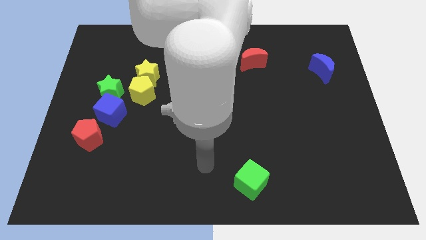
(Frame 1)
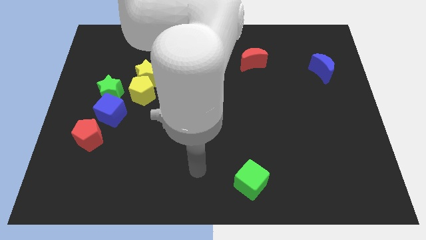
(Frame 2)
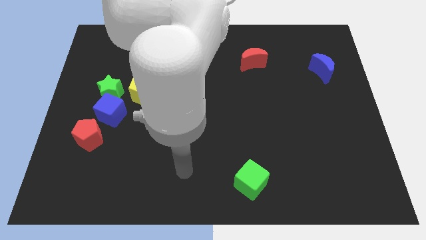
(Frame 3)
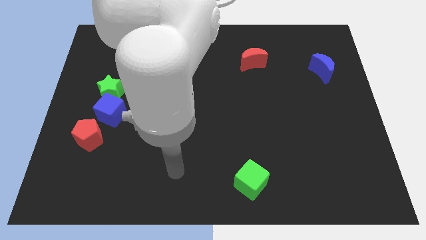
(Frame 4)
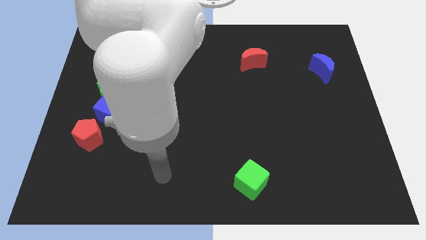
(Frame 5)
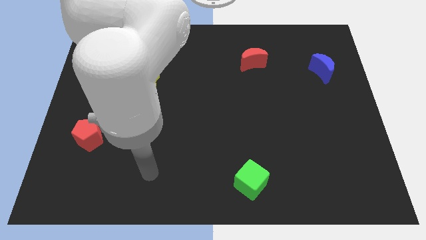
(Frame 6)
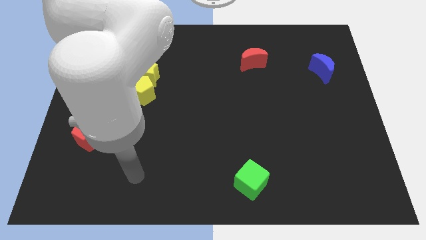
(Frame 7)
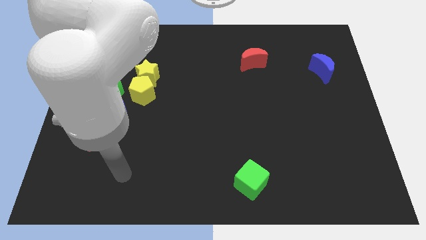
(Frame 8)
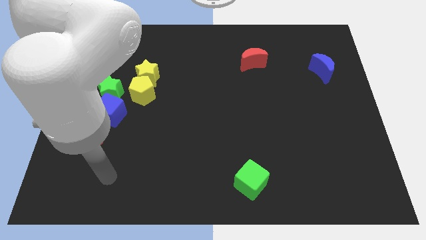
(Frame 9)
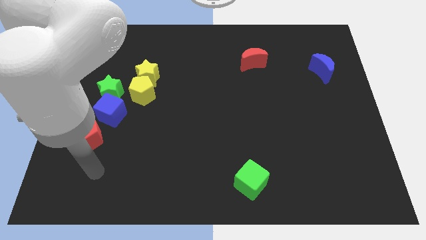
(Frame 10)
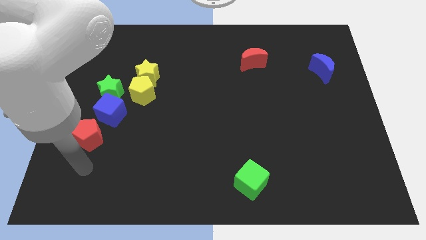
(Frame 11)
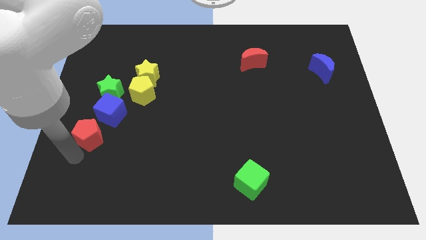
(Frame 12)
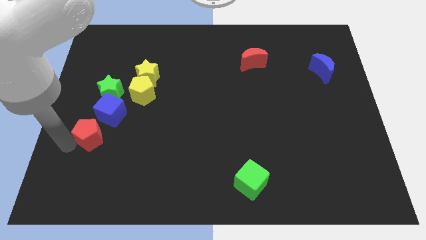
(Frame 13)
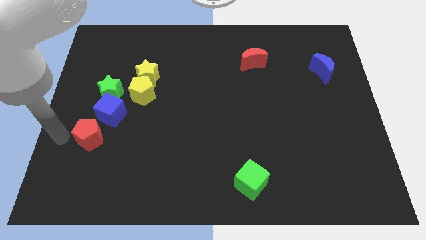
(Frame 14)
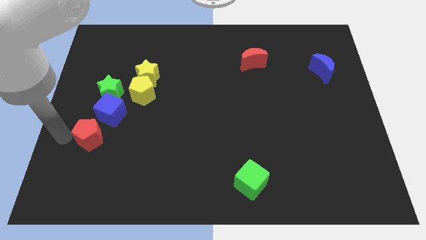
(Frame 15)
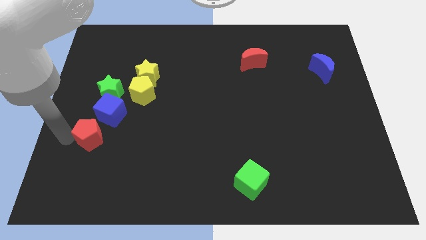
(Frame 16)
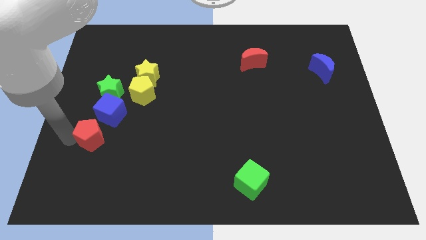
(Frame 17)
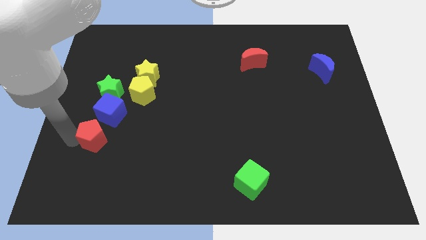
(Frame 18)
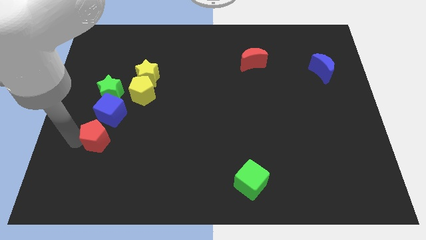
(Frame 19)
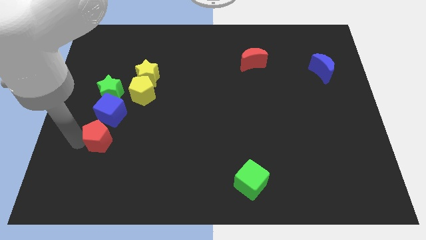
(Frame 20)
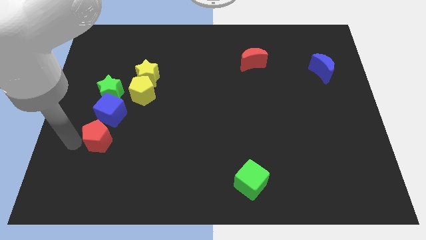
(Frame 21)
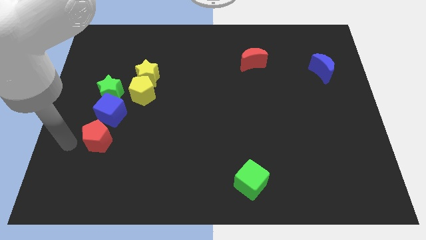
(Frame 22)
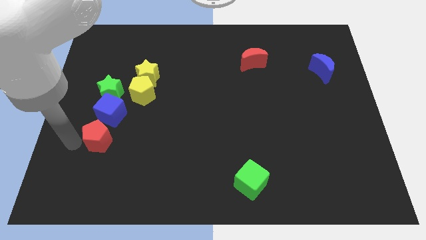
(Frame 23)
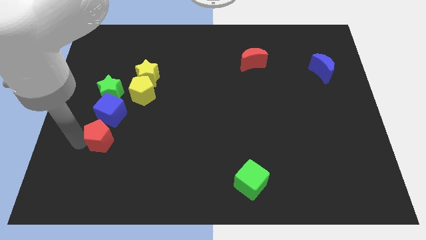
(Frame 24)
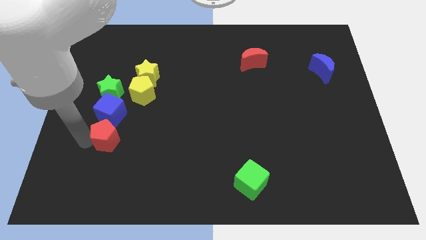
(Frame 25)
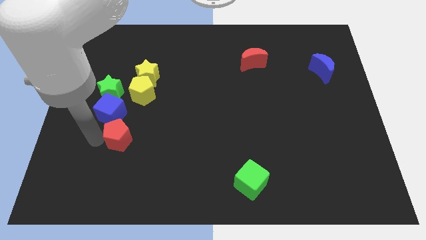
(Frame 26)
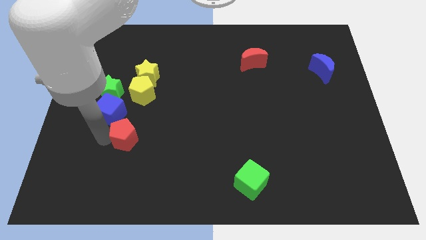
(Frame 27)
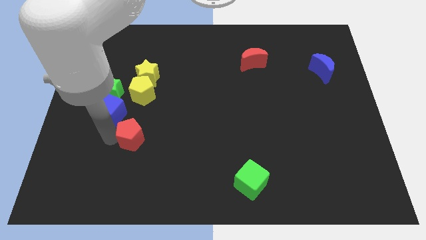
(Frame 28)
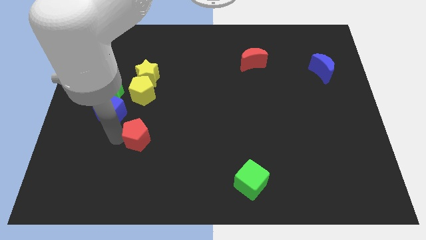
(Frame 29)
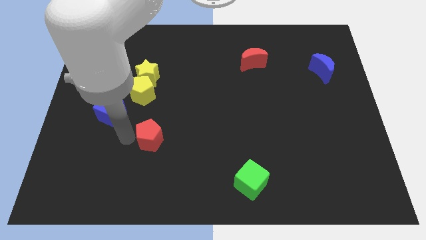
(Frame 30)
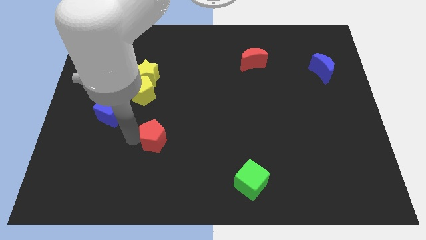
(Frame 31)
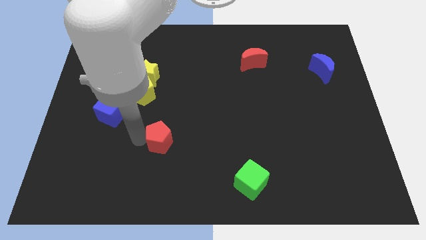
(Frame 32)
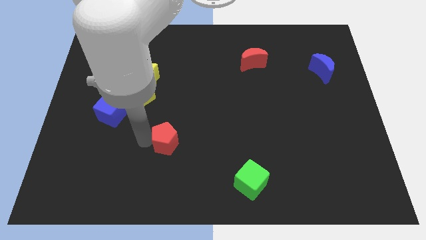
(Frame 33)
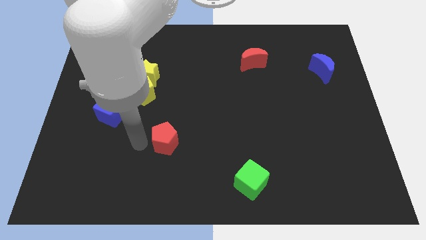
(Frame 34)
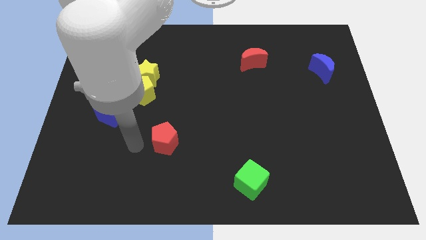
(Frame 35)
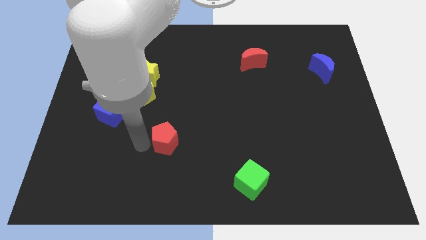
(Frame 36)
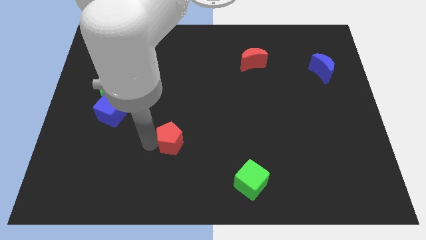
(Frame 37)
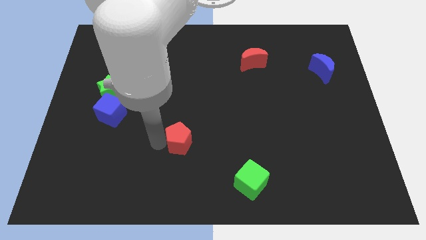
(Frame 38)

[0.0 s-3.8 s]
slide the red pentagon to the right

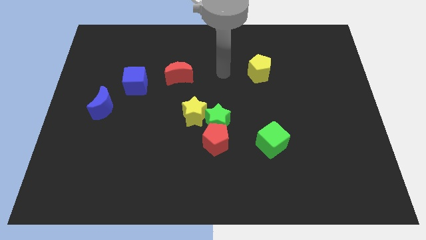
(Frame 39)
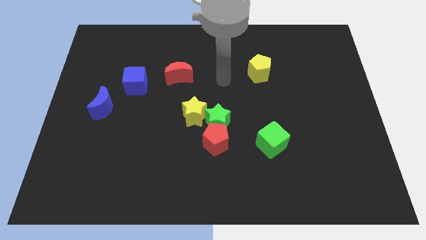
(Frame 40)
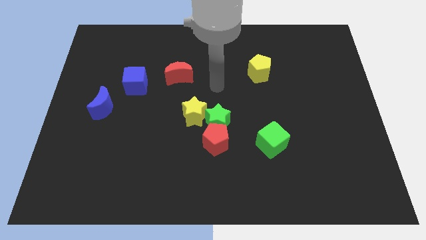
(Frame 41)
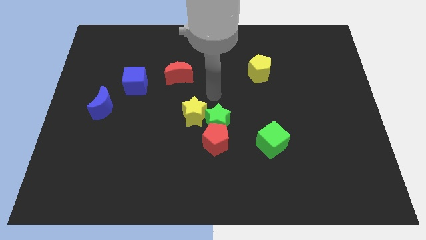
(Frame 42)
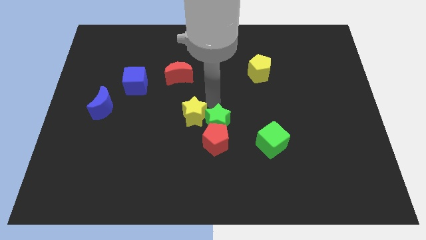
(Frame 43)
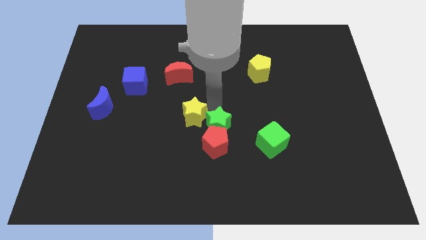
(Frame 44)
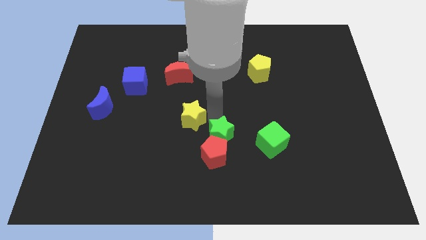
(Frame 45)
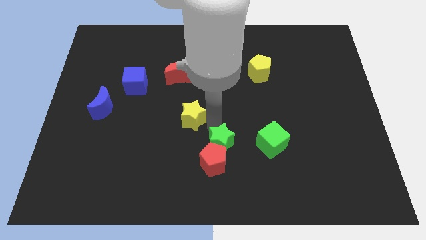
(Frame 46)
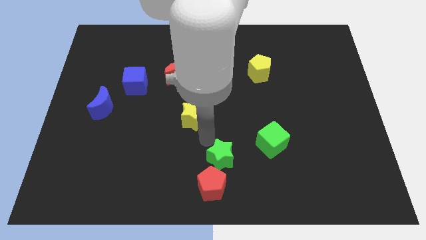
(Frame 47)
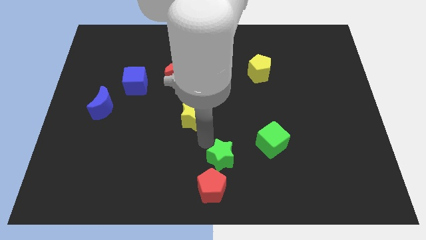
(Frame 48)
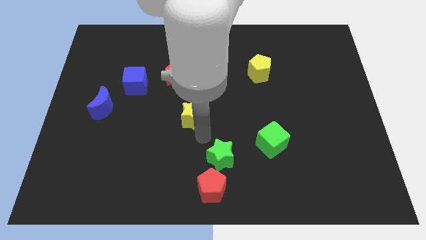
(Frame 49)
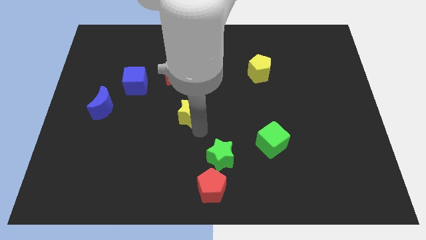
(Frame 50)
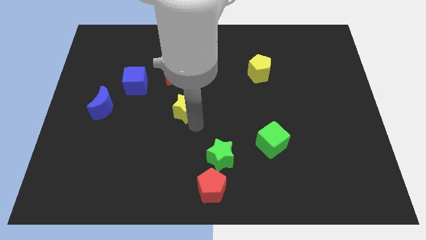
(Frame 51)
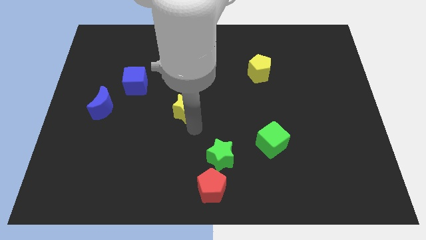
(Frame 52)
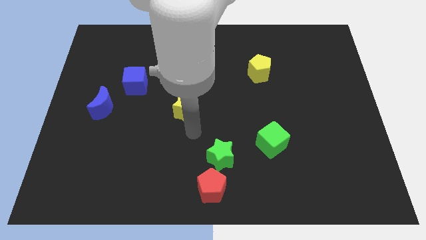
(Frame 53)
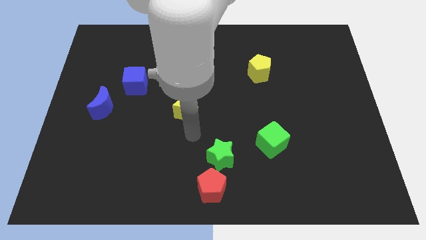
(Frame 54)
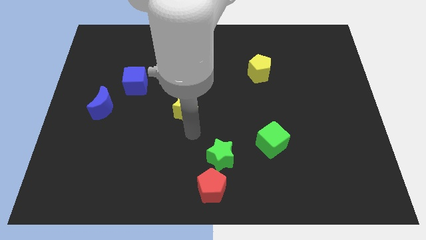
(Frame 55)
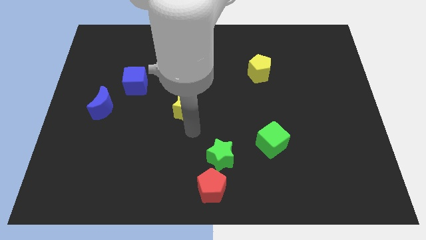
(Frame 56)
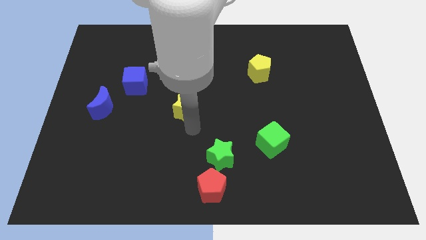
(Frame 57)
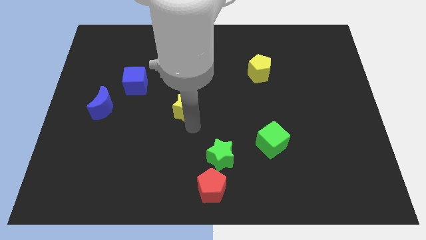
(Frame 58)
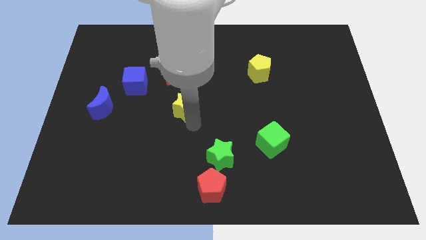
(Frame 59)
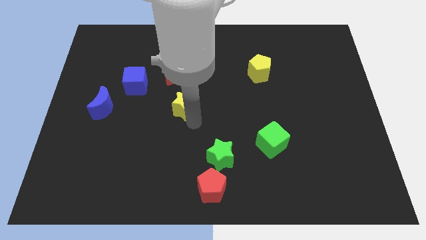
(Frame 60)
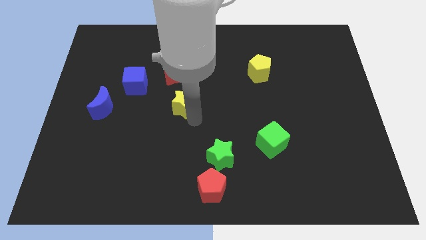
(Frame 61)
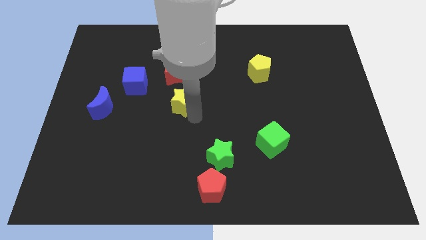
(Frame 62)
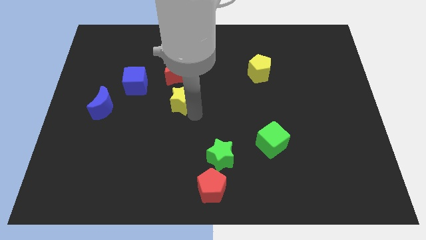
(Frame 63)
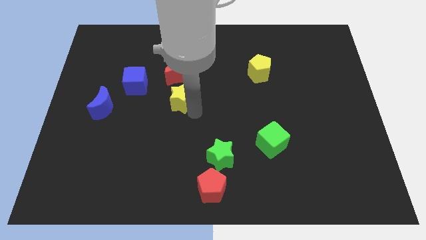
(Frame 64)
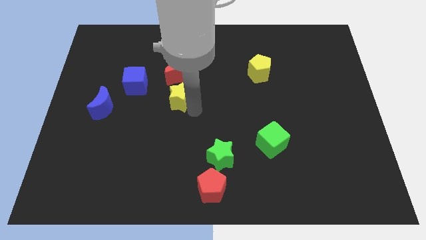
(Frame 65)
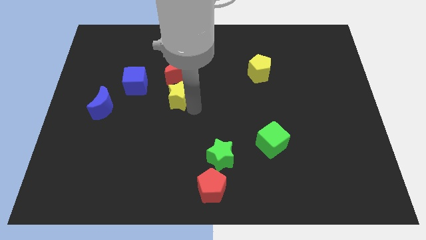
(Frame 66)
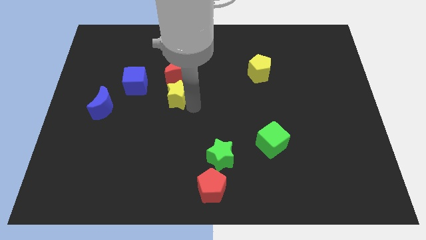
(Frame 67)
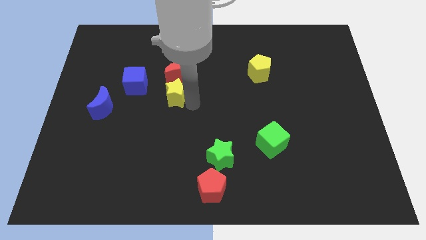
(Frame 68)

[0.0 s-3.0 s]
slide the yellow star diagonally upwards and left a little

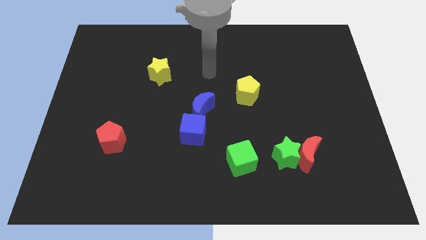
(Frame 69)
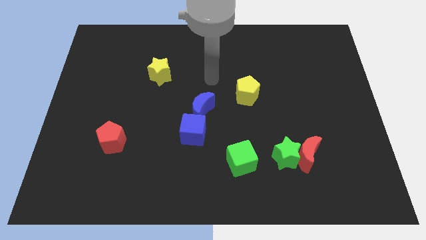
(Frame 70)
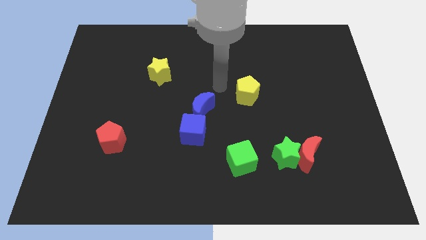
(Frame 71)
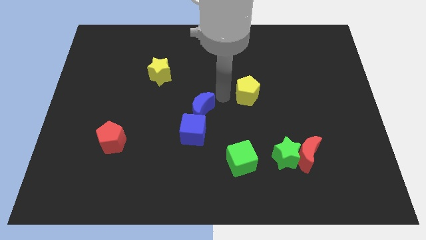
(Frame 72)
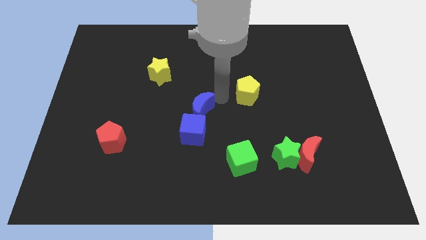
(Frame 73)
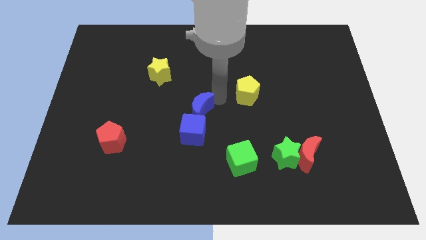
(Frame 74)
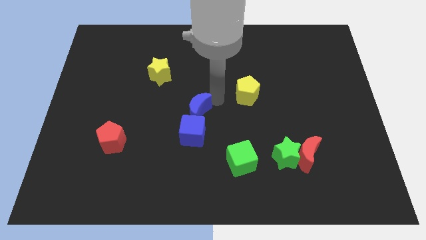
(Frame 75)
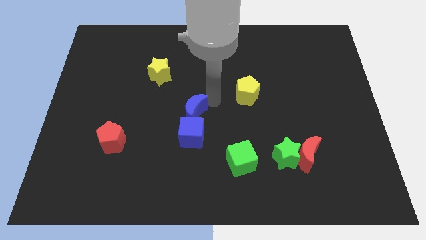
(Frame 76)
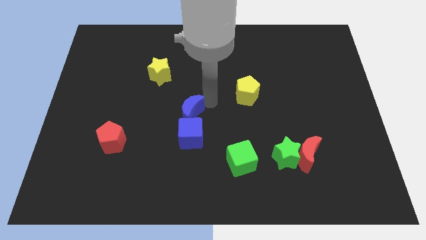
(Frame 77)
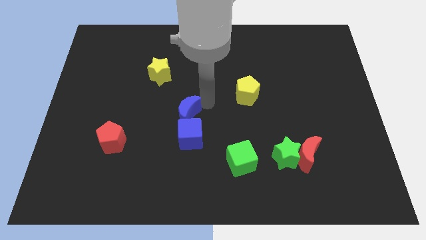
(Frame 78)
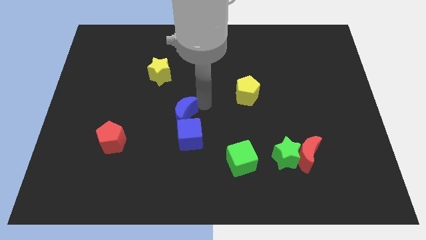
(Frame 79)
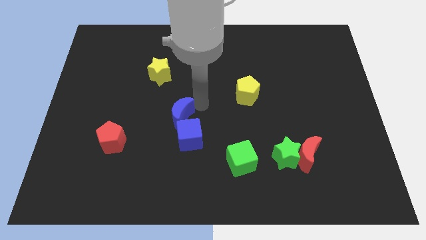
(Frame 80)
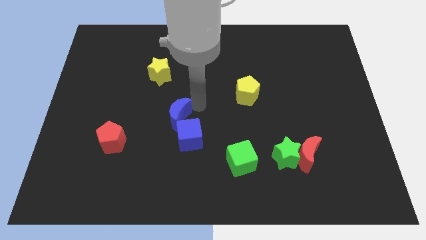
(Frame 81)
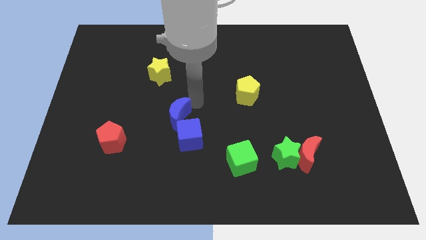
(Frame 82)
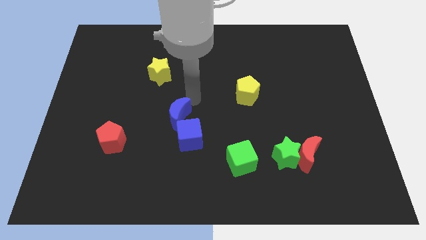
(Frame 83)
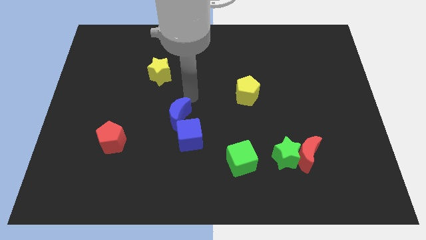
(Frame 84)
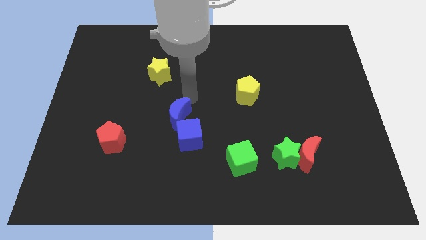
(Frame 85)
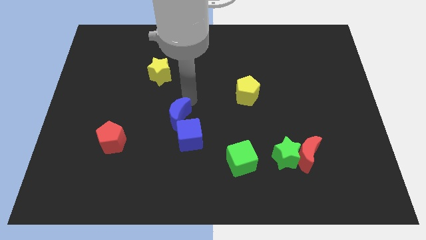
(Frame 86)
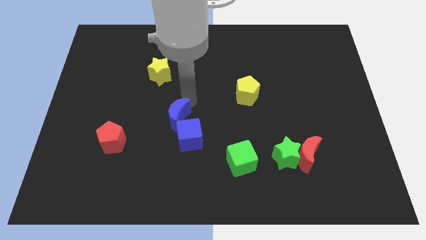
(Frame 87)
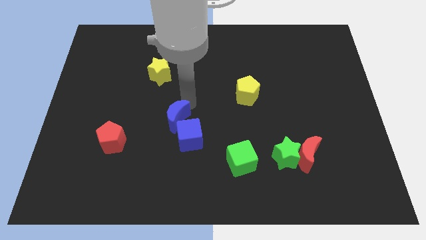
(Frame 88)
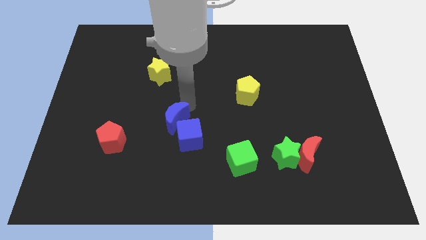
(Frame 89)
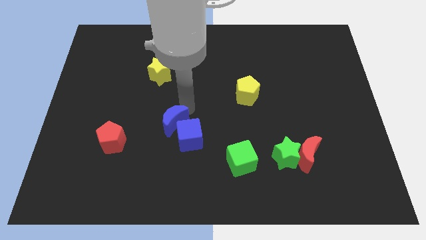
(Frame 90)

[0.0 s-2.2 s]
move the blue moon down and to the left a bit
